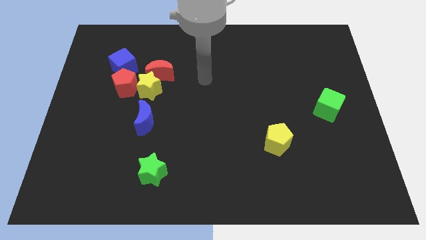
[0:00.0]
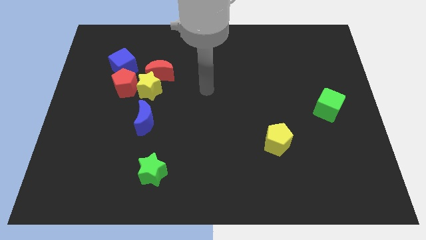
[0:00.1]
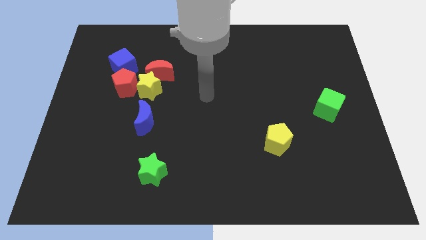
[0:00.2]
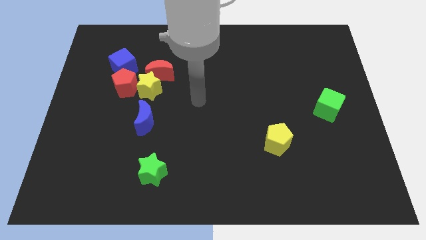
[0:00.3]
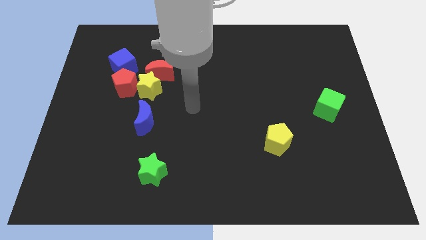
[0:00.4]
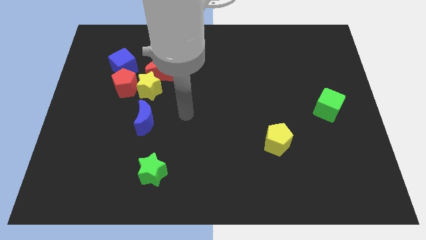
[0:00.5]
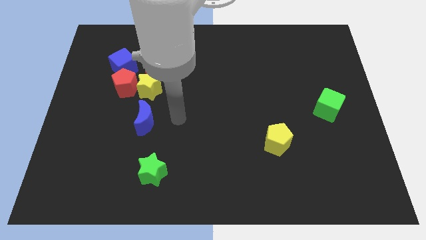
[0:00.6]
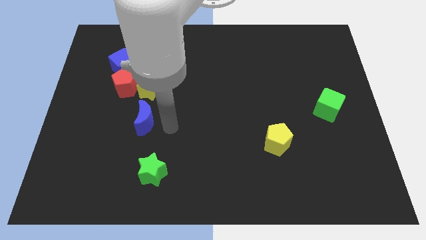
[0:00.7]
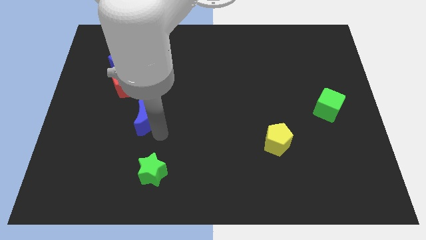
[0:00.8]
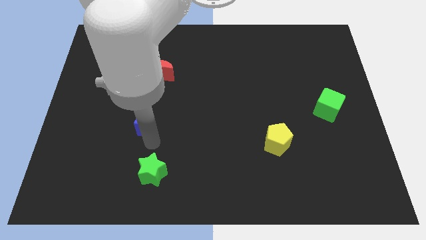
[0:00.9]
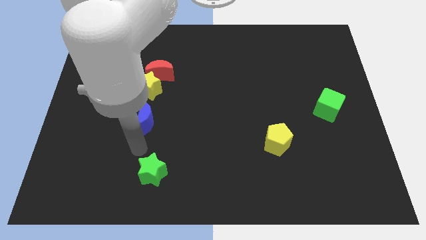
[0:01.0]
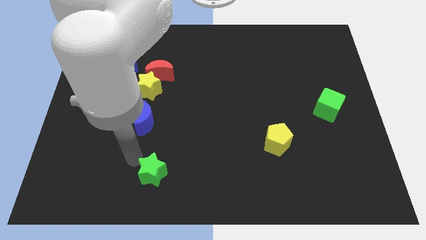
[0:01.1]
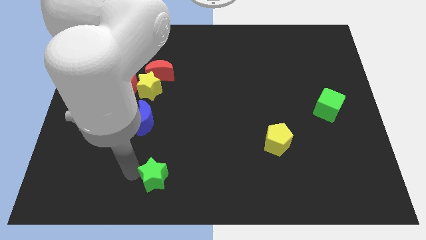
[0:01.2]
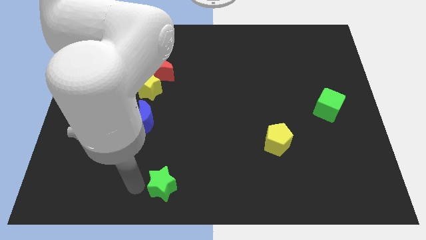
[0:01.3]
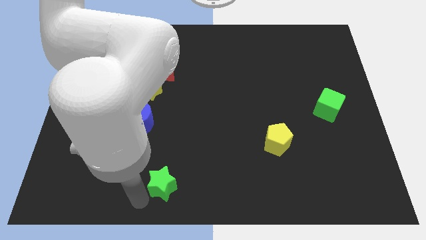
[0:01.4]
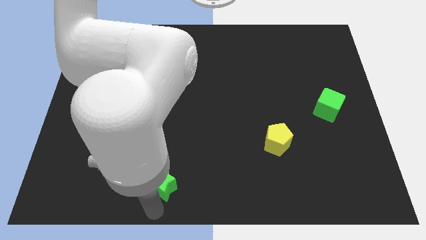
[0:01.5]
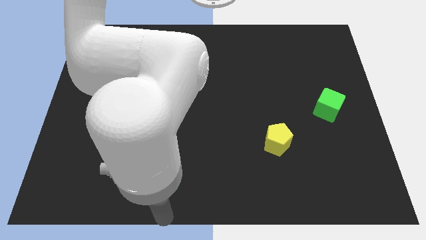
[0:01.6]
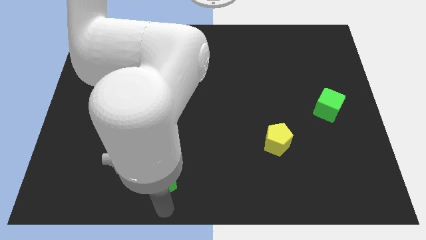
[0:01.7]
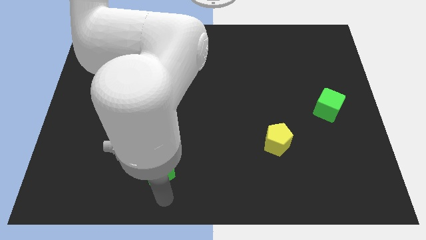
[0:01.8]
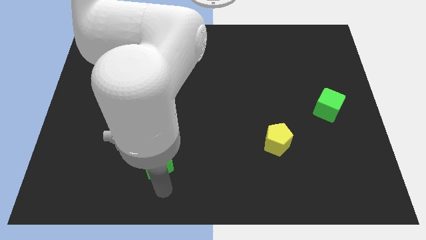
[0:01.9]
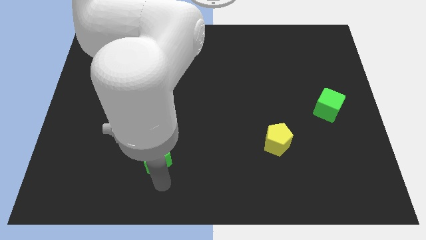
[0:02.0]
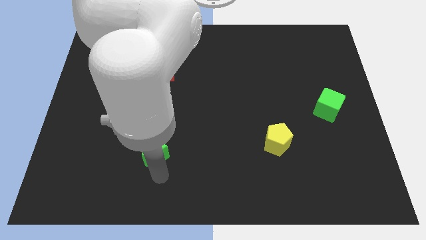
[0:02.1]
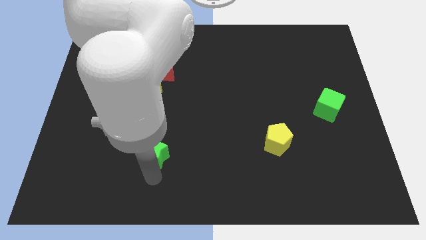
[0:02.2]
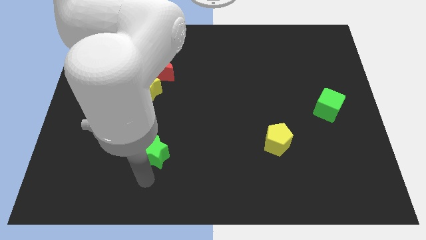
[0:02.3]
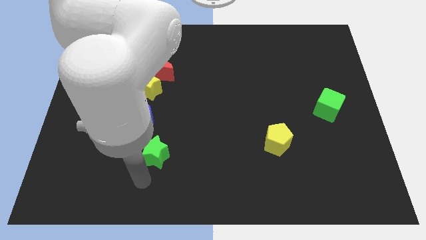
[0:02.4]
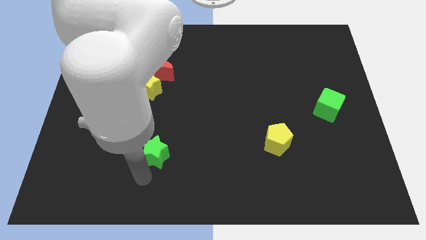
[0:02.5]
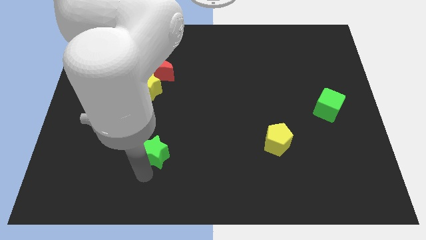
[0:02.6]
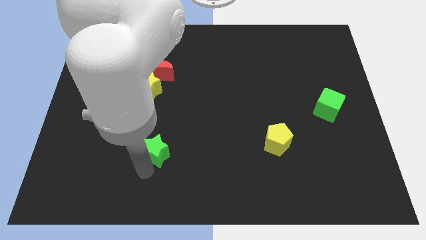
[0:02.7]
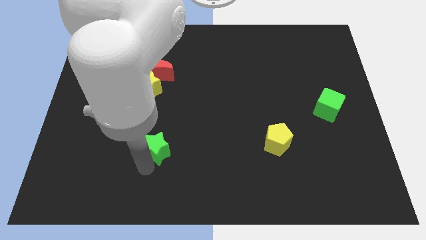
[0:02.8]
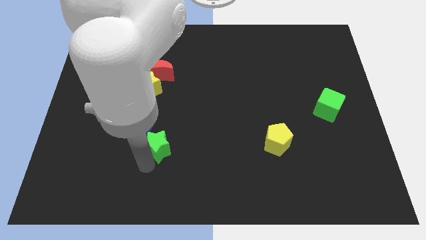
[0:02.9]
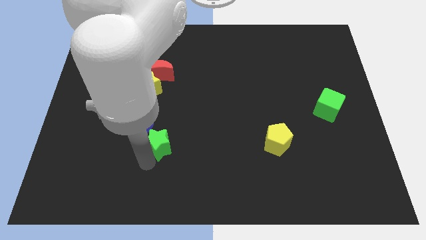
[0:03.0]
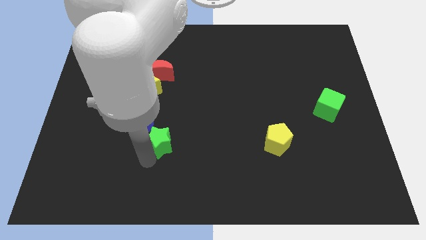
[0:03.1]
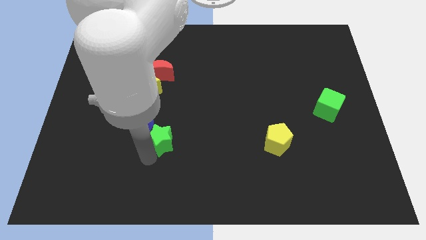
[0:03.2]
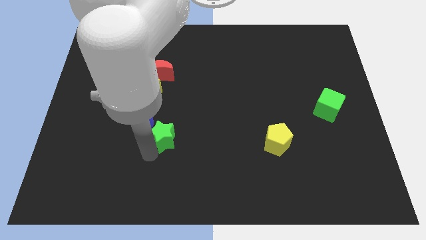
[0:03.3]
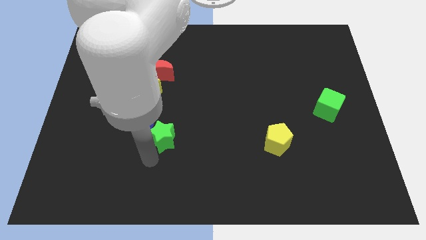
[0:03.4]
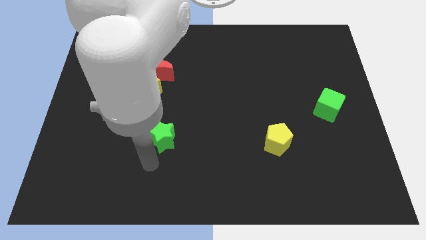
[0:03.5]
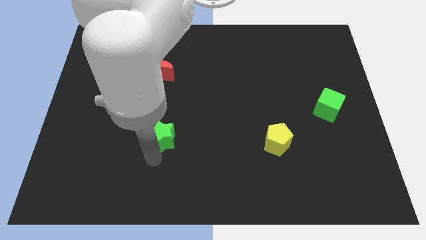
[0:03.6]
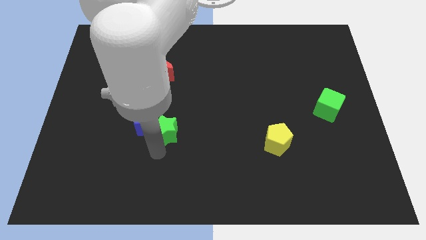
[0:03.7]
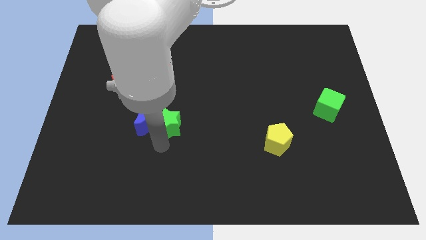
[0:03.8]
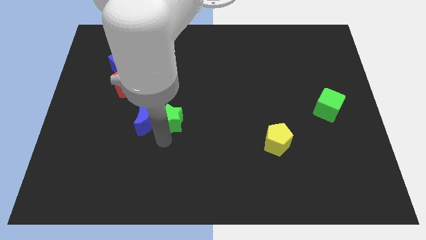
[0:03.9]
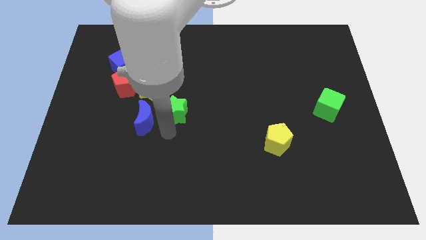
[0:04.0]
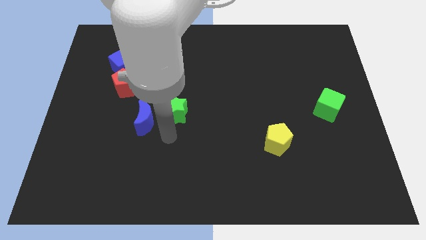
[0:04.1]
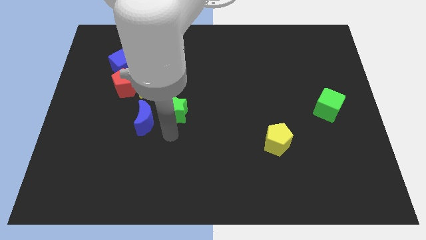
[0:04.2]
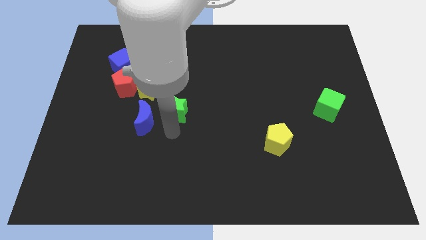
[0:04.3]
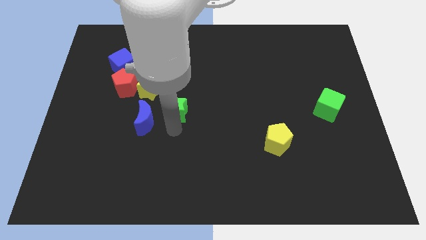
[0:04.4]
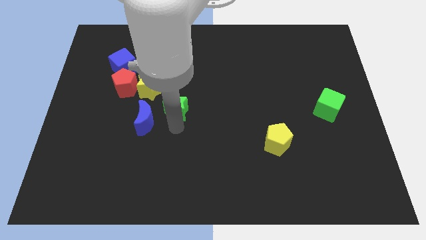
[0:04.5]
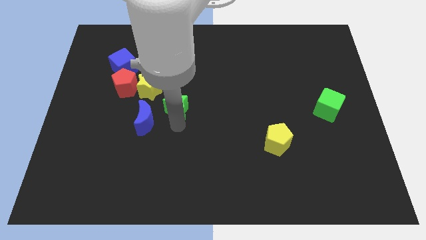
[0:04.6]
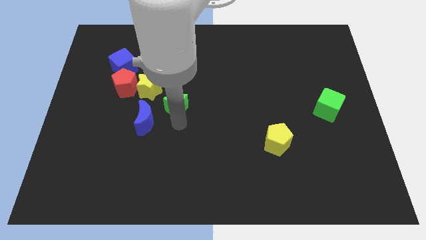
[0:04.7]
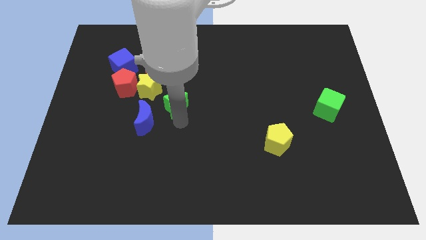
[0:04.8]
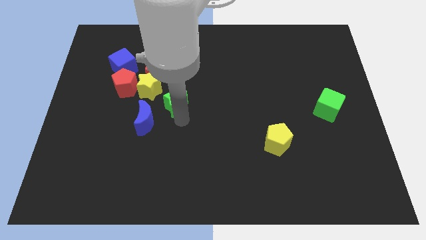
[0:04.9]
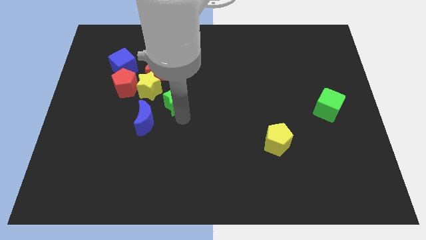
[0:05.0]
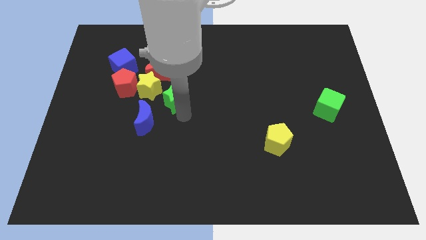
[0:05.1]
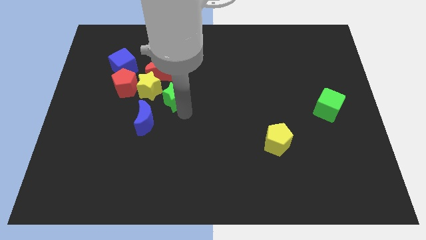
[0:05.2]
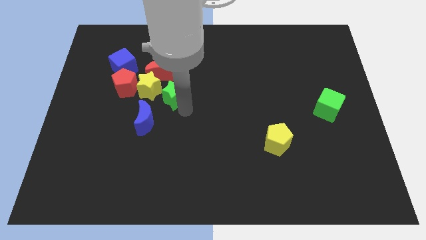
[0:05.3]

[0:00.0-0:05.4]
move the green star up

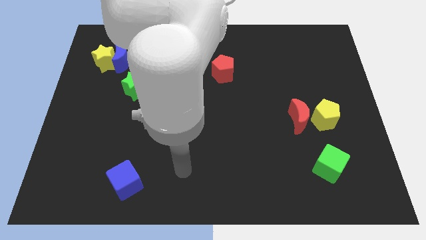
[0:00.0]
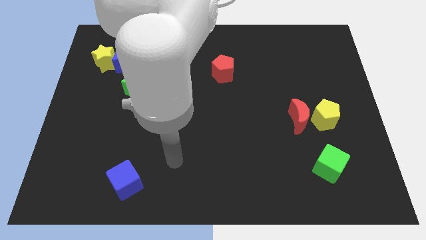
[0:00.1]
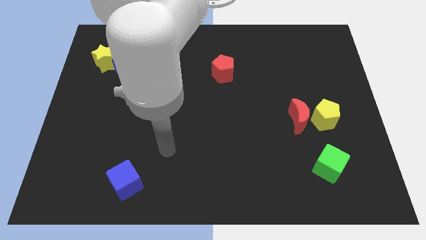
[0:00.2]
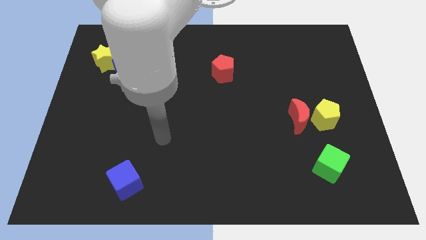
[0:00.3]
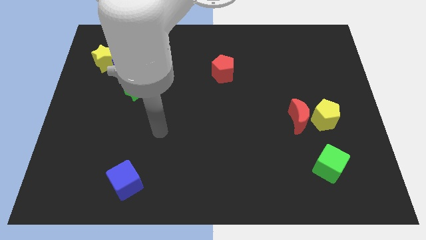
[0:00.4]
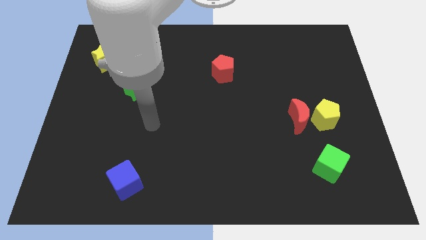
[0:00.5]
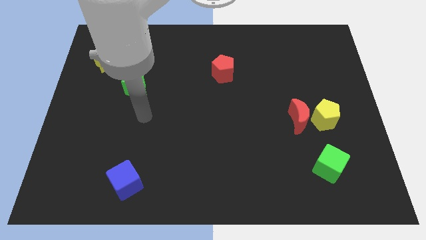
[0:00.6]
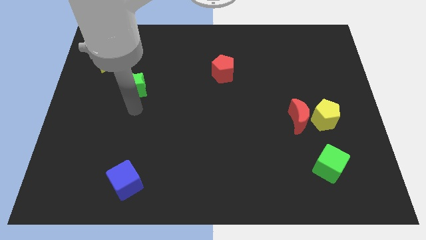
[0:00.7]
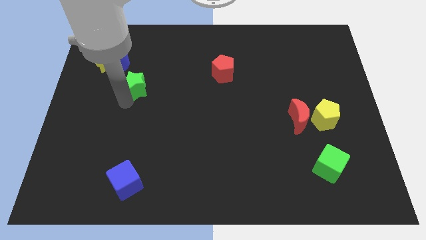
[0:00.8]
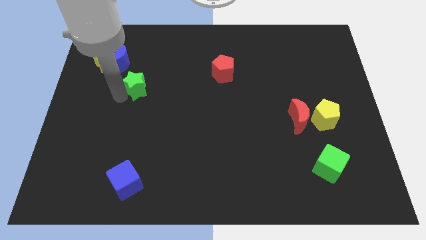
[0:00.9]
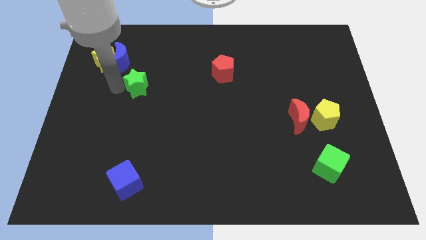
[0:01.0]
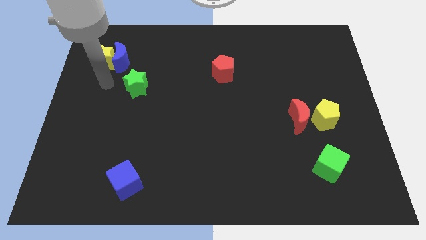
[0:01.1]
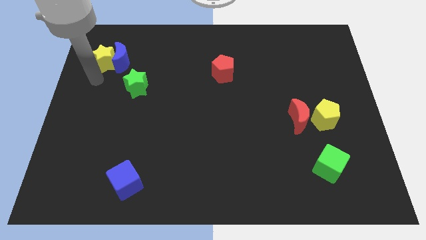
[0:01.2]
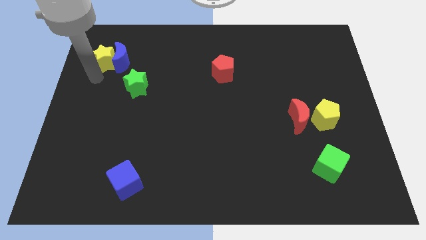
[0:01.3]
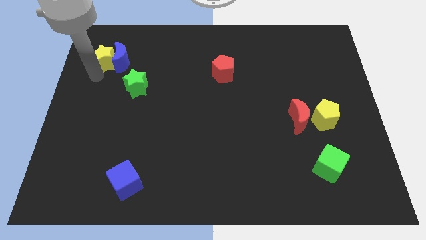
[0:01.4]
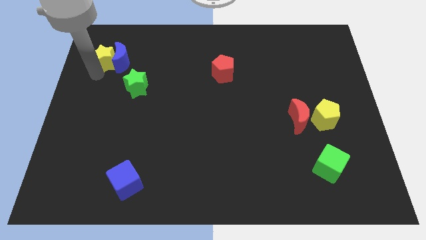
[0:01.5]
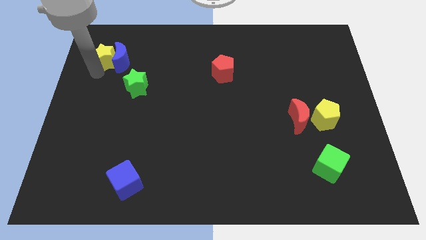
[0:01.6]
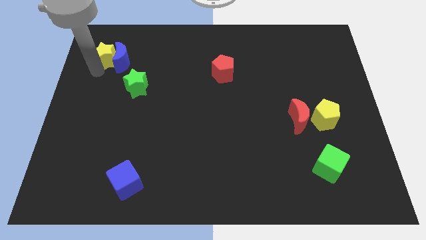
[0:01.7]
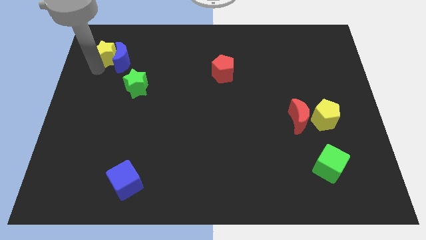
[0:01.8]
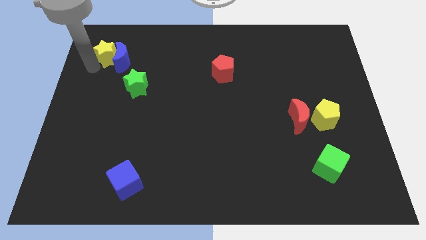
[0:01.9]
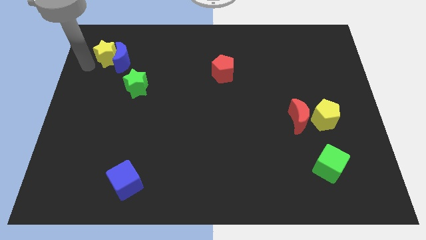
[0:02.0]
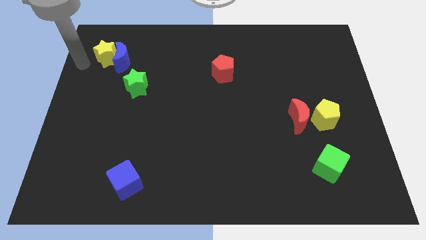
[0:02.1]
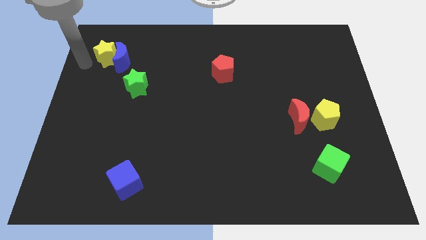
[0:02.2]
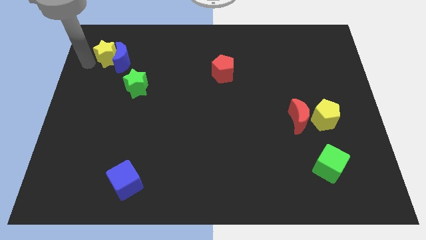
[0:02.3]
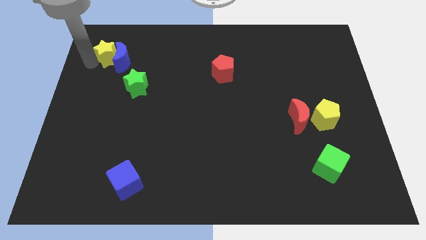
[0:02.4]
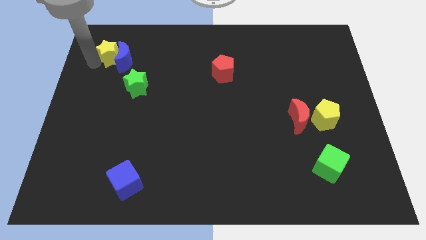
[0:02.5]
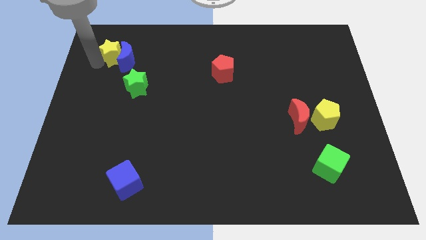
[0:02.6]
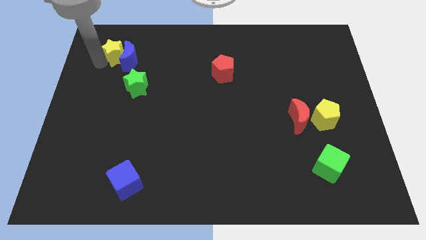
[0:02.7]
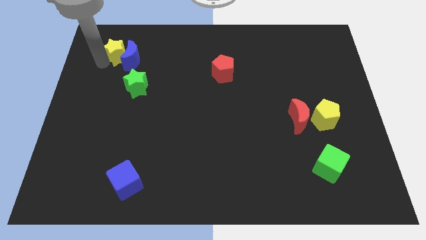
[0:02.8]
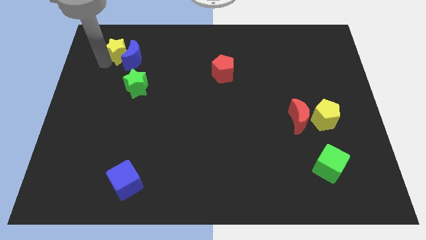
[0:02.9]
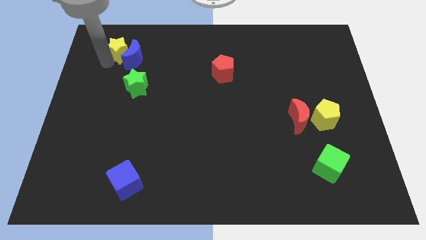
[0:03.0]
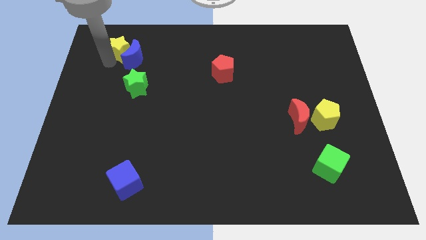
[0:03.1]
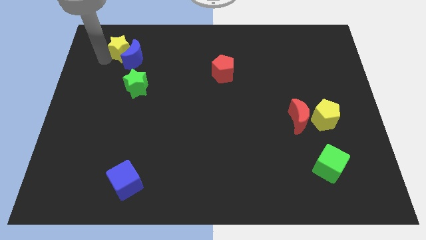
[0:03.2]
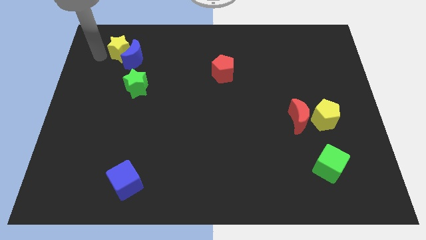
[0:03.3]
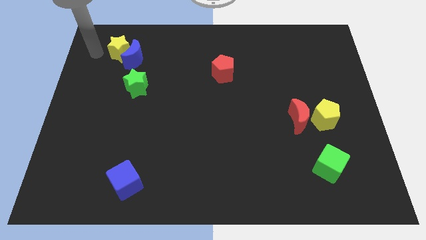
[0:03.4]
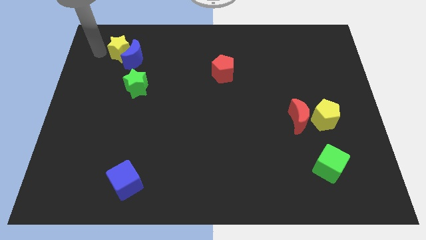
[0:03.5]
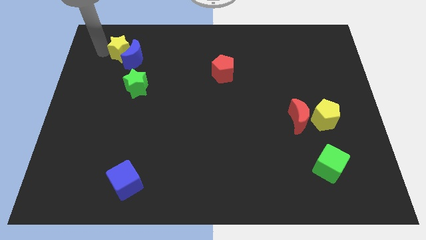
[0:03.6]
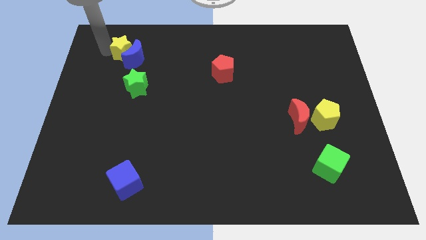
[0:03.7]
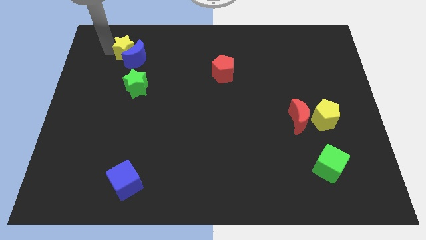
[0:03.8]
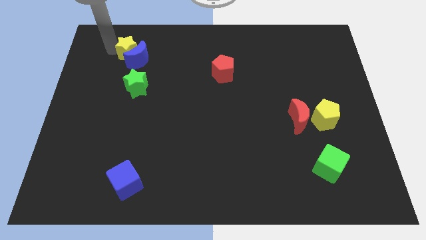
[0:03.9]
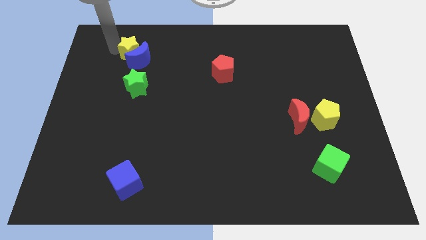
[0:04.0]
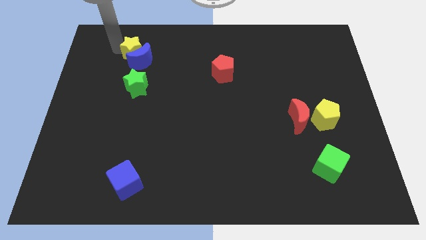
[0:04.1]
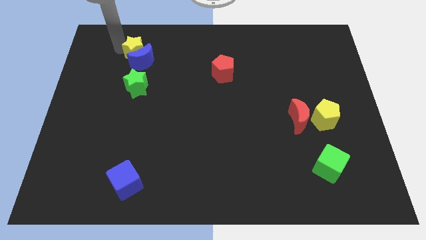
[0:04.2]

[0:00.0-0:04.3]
slide the yellow star right somewhat
